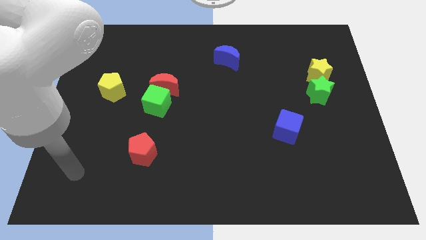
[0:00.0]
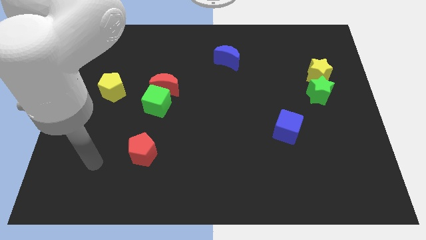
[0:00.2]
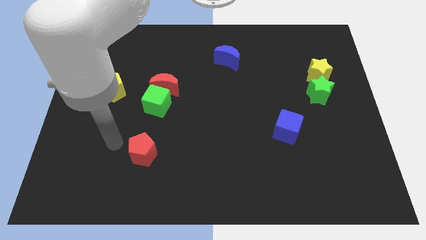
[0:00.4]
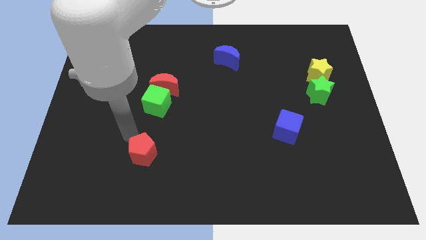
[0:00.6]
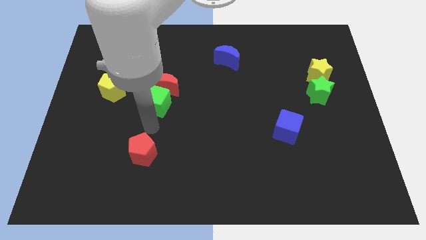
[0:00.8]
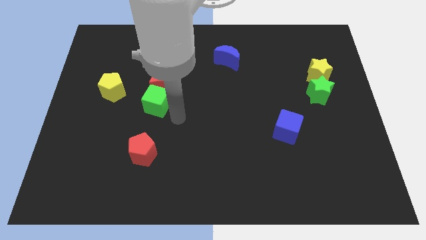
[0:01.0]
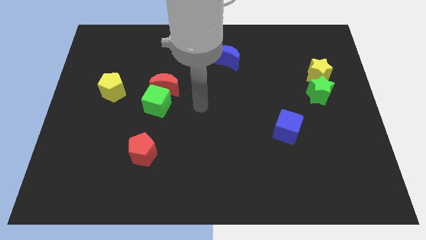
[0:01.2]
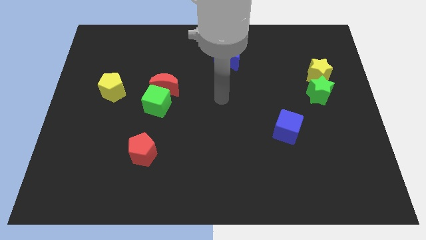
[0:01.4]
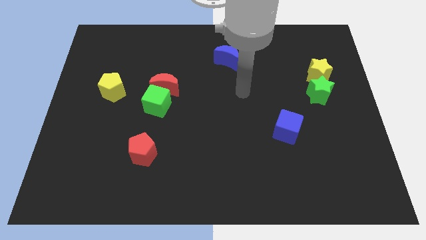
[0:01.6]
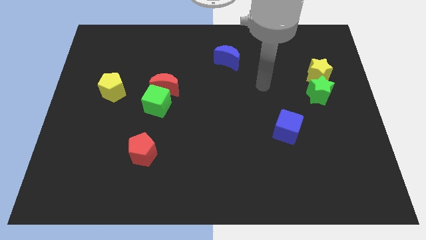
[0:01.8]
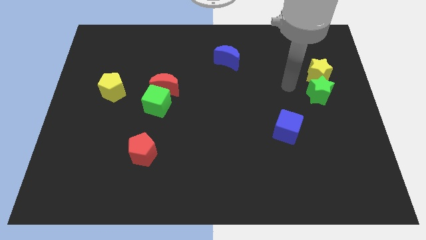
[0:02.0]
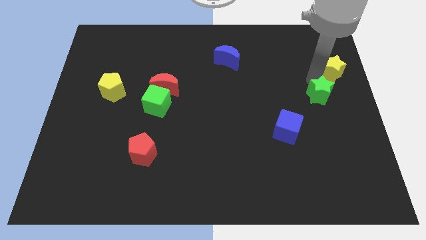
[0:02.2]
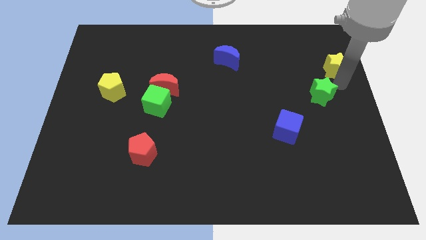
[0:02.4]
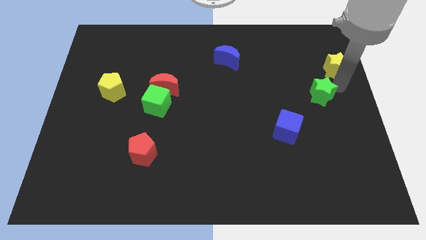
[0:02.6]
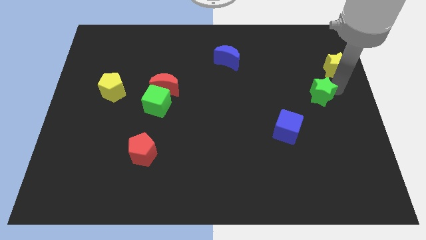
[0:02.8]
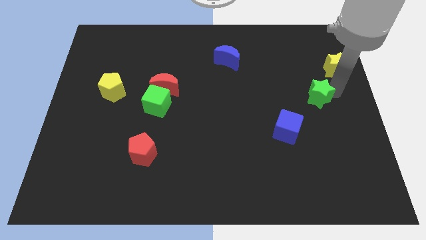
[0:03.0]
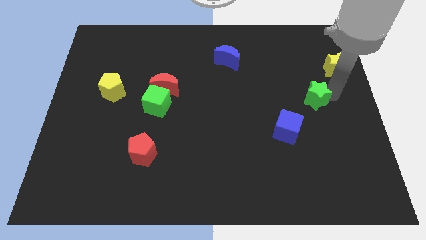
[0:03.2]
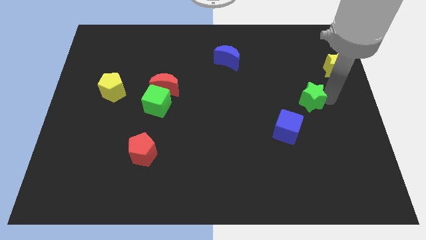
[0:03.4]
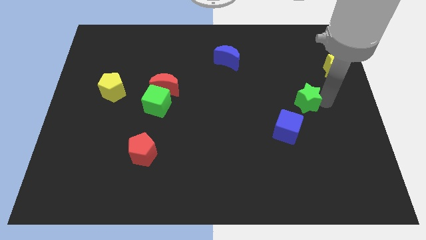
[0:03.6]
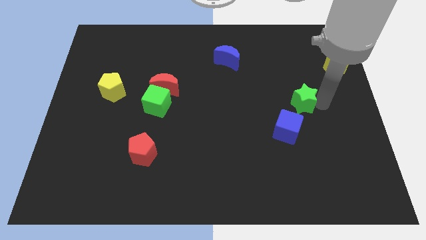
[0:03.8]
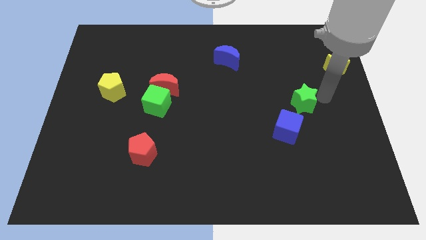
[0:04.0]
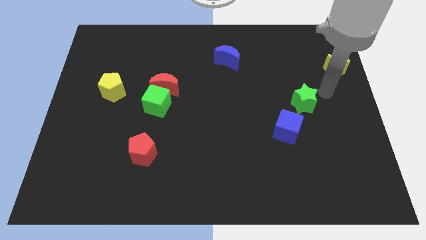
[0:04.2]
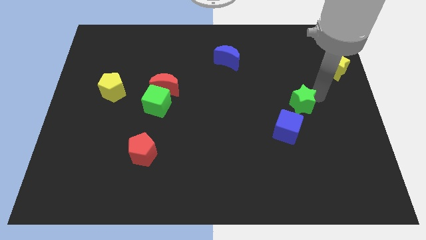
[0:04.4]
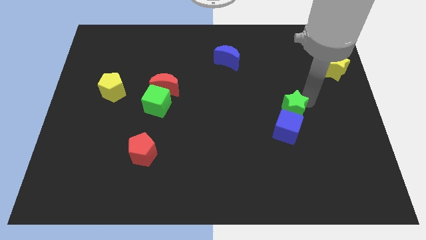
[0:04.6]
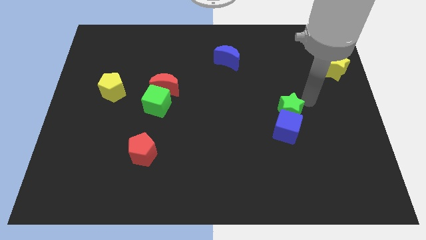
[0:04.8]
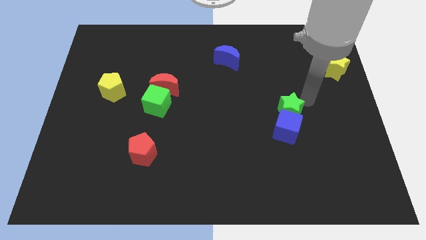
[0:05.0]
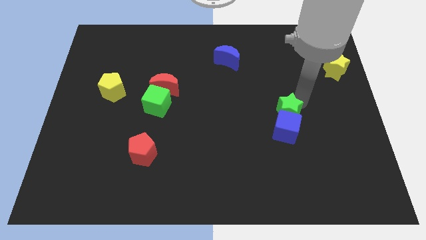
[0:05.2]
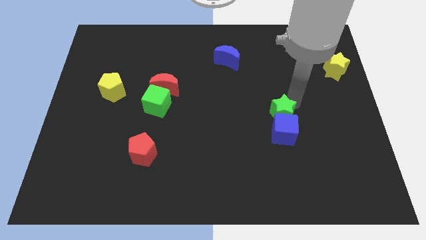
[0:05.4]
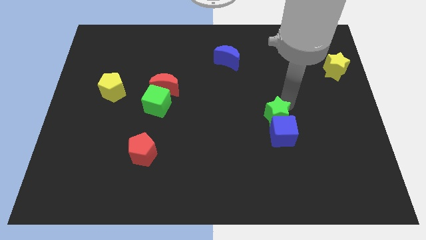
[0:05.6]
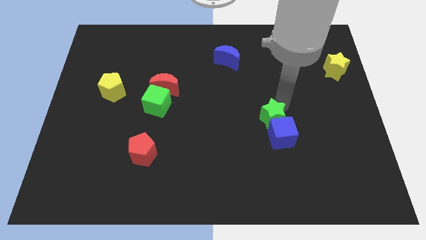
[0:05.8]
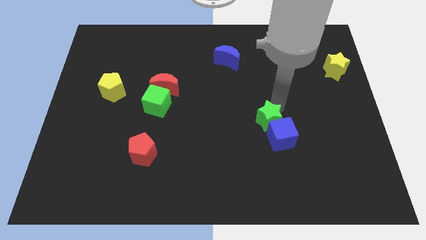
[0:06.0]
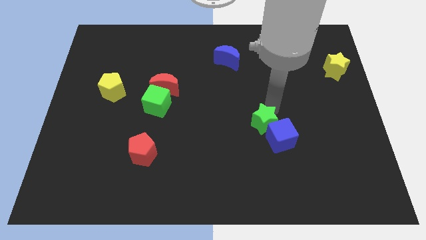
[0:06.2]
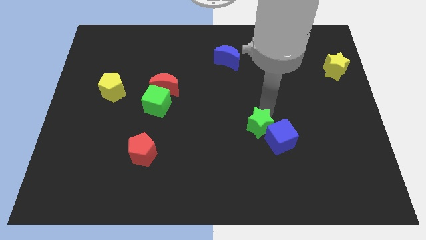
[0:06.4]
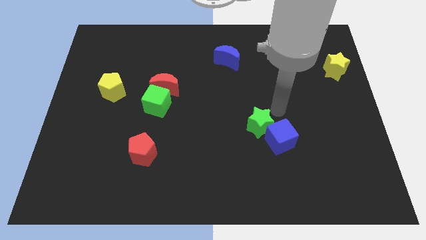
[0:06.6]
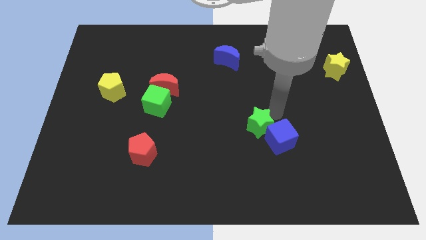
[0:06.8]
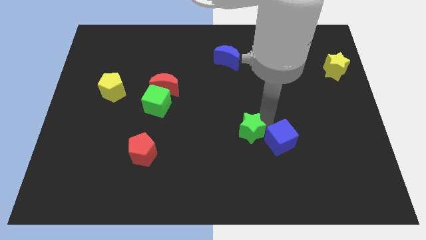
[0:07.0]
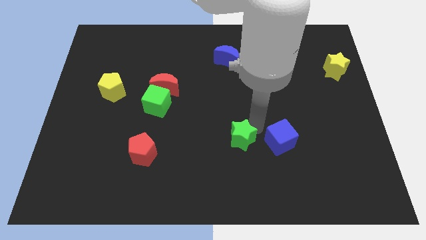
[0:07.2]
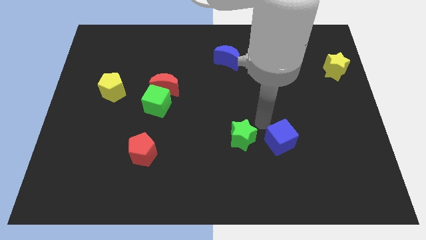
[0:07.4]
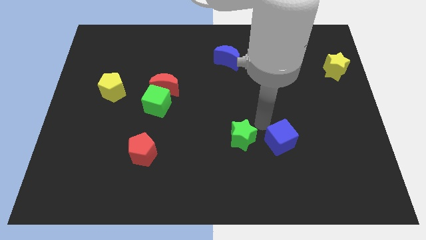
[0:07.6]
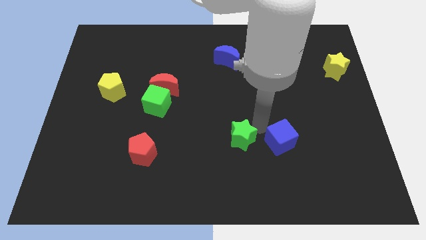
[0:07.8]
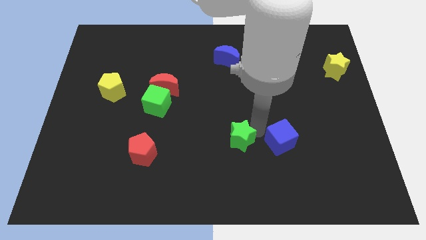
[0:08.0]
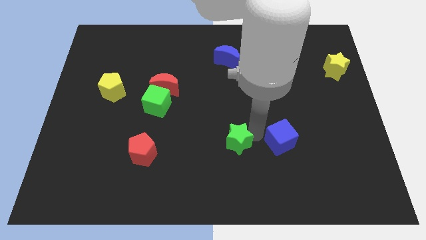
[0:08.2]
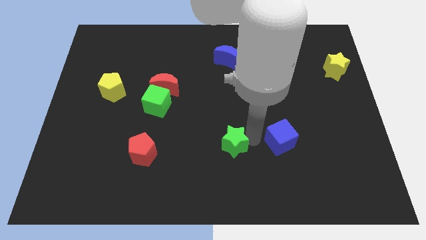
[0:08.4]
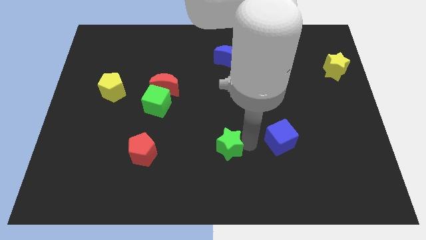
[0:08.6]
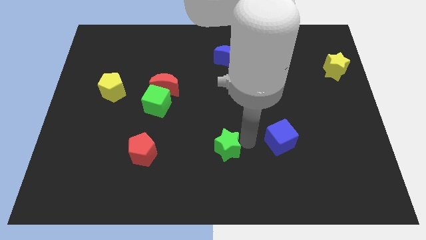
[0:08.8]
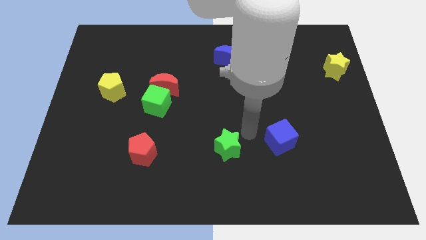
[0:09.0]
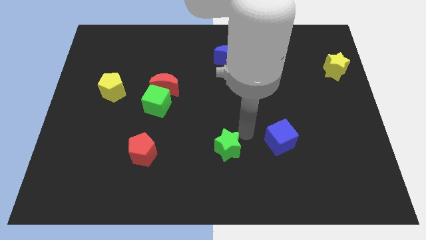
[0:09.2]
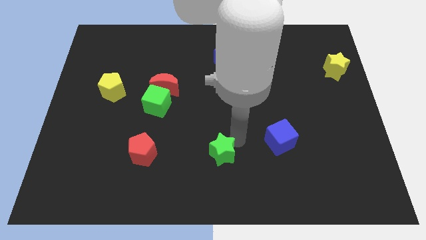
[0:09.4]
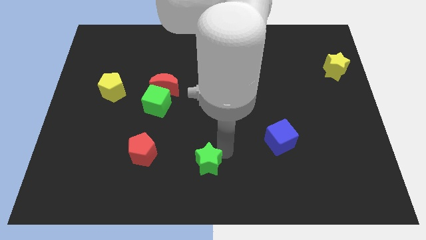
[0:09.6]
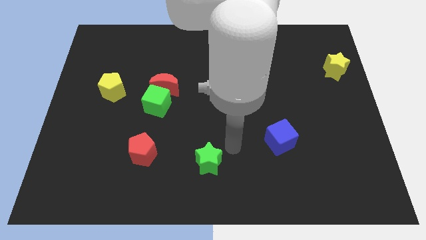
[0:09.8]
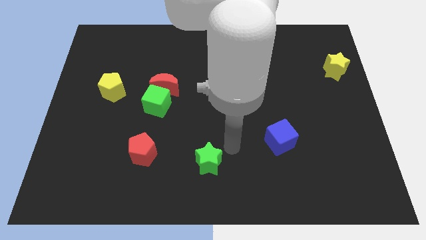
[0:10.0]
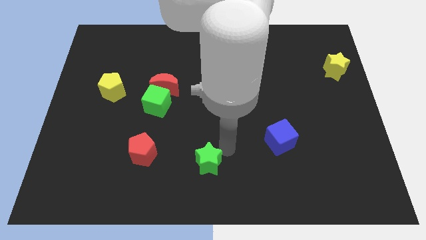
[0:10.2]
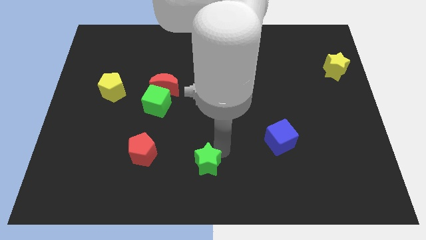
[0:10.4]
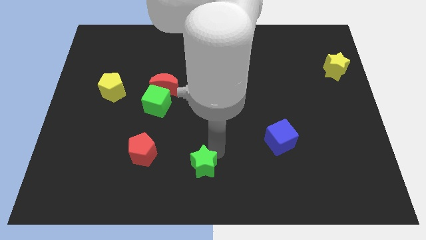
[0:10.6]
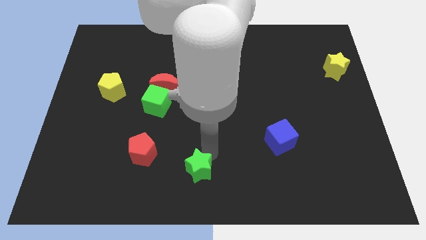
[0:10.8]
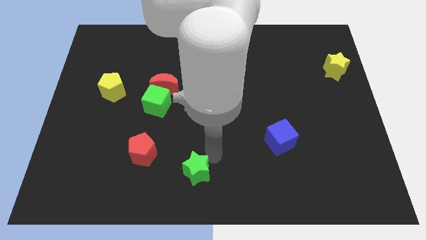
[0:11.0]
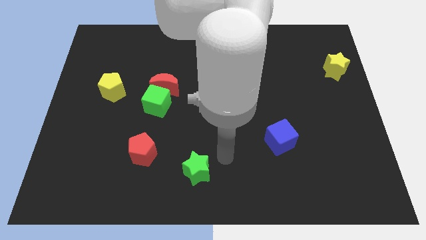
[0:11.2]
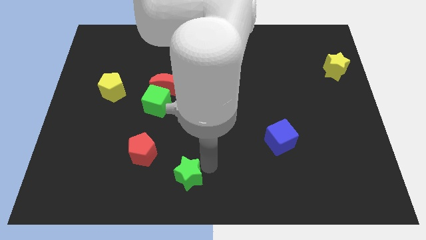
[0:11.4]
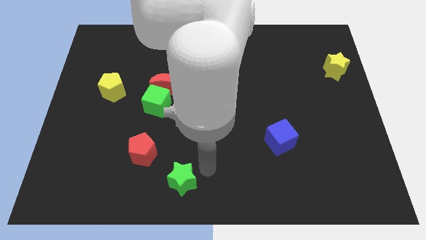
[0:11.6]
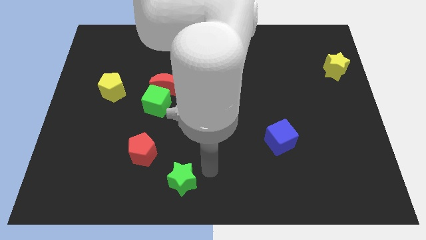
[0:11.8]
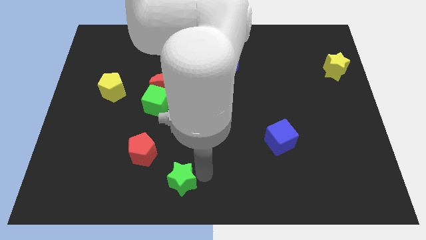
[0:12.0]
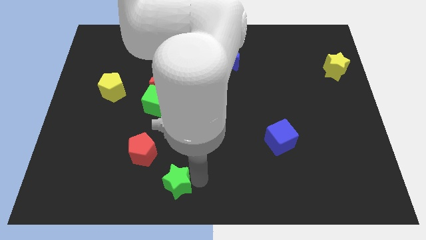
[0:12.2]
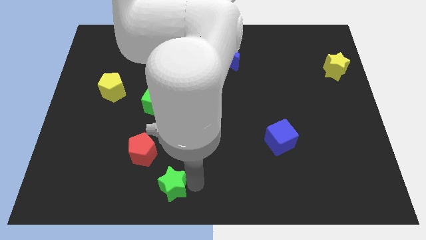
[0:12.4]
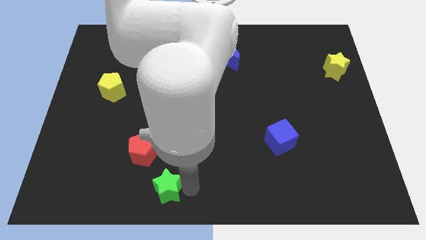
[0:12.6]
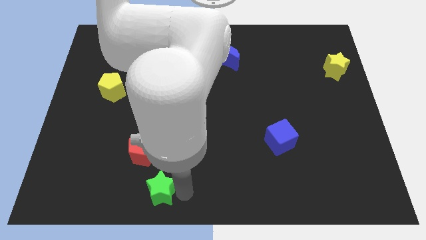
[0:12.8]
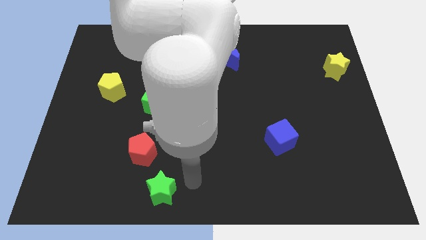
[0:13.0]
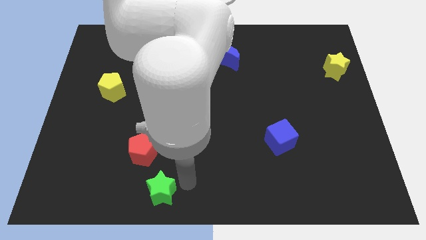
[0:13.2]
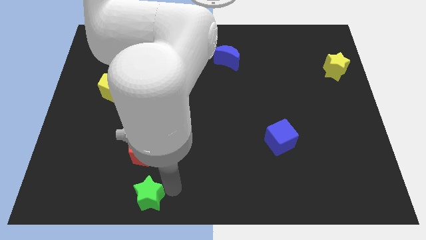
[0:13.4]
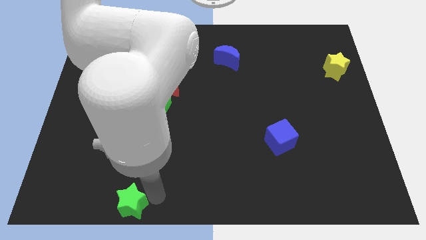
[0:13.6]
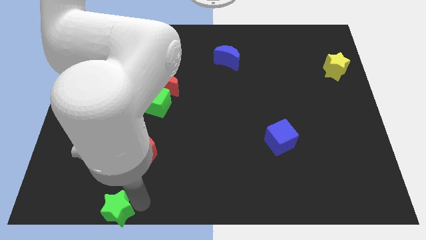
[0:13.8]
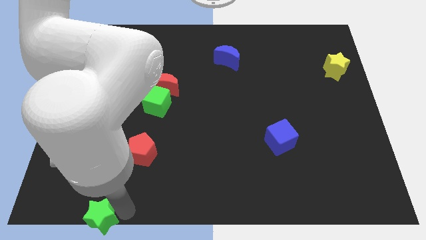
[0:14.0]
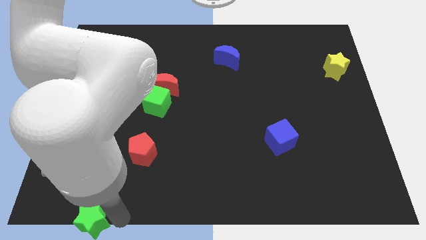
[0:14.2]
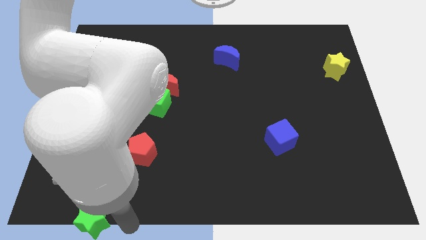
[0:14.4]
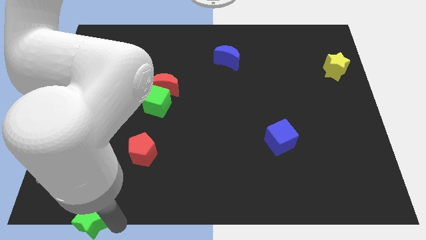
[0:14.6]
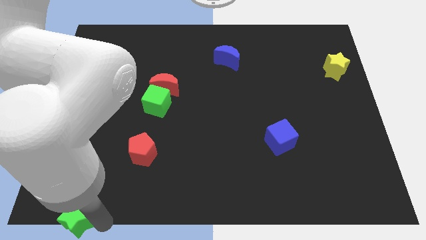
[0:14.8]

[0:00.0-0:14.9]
slide the green star to the bottom left of the board
